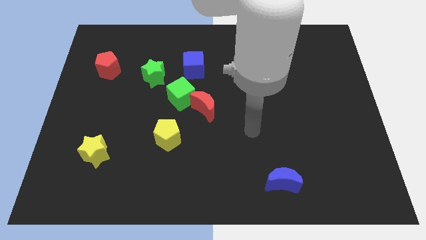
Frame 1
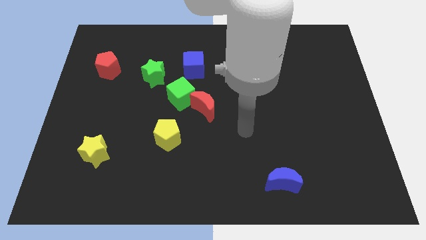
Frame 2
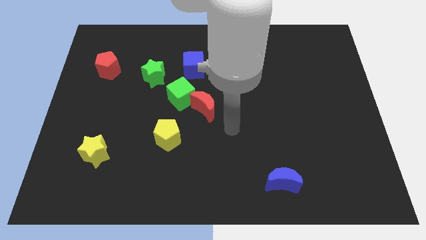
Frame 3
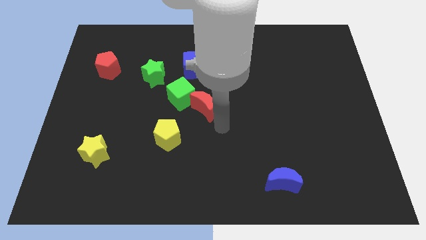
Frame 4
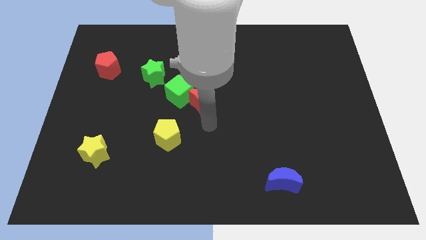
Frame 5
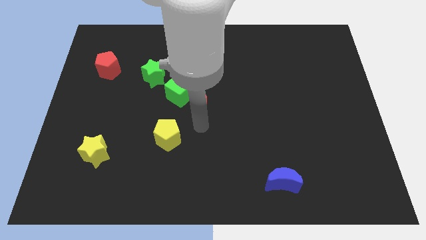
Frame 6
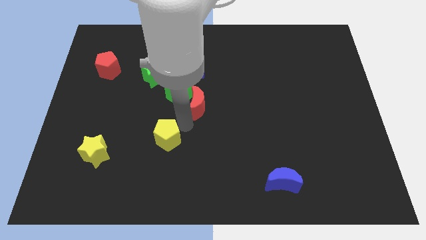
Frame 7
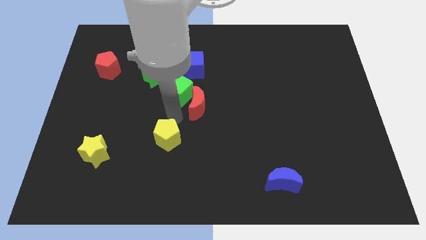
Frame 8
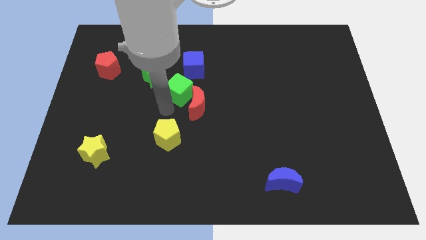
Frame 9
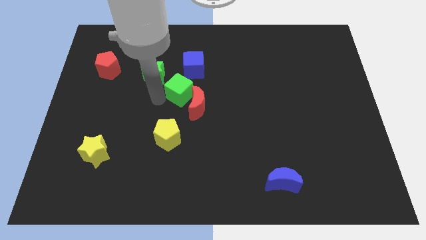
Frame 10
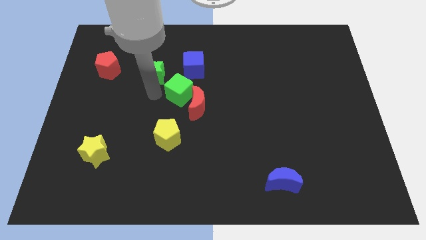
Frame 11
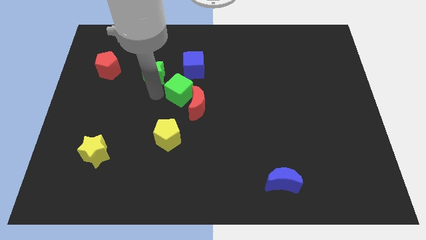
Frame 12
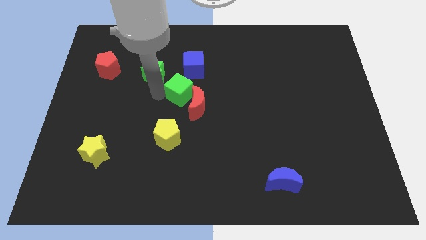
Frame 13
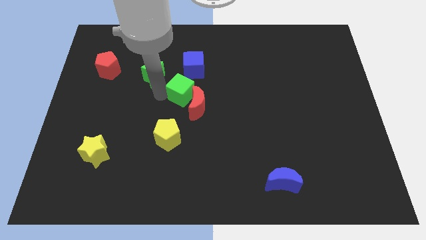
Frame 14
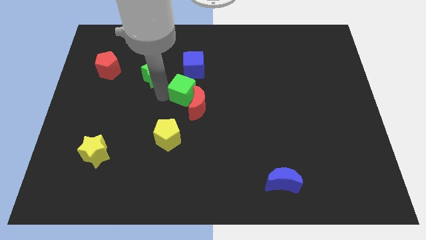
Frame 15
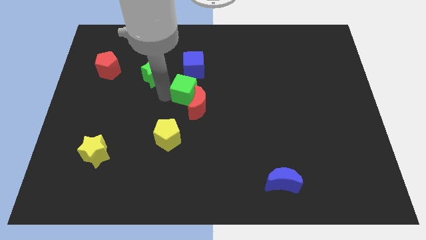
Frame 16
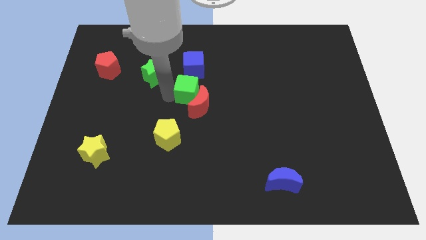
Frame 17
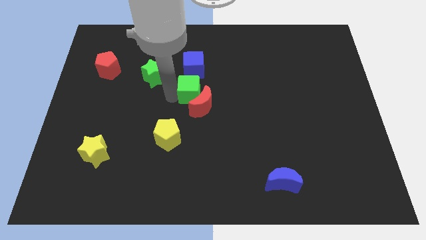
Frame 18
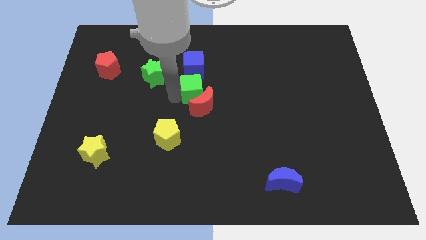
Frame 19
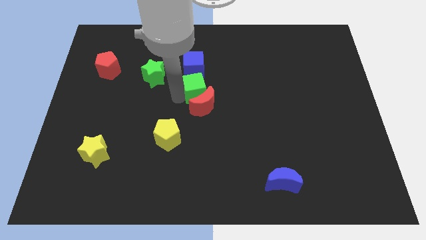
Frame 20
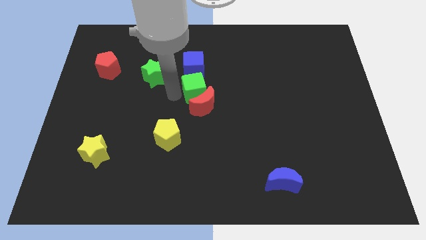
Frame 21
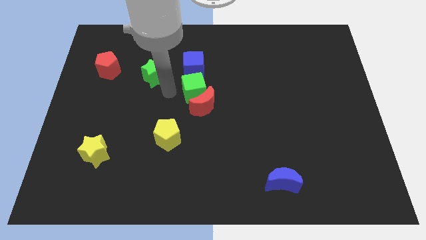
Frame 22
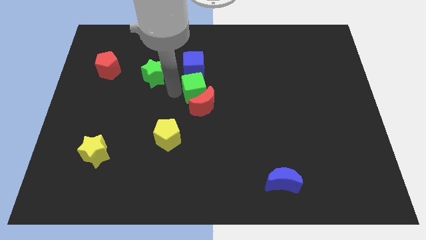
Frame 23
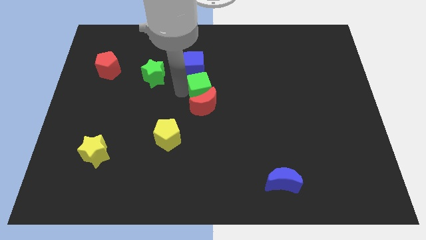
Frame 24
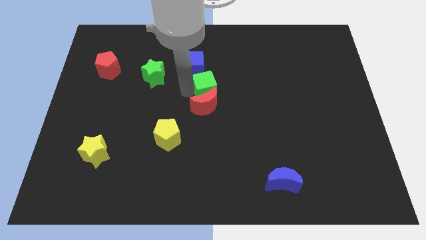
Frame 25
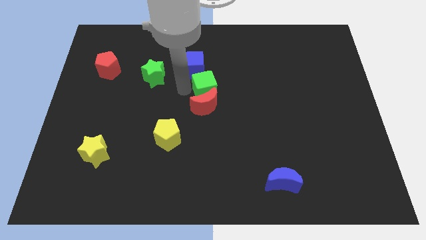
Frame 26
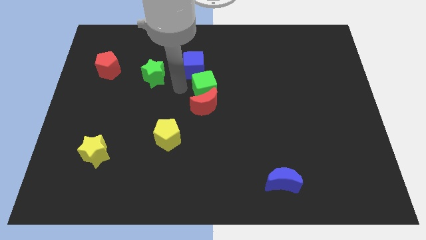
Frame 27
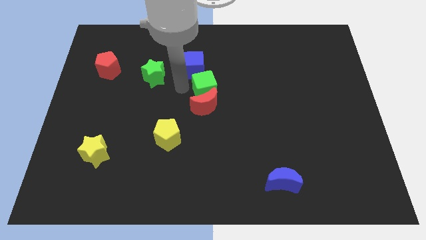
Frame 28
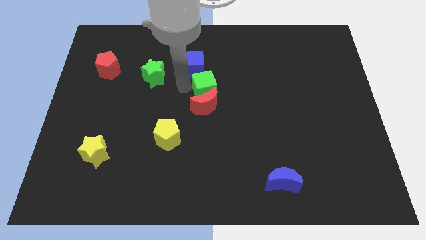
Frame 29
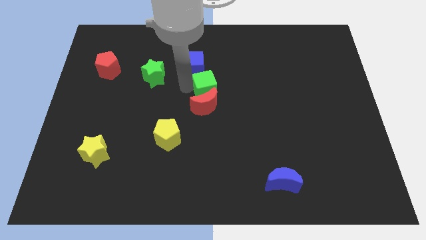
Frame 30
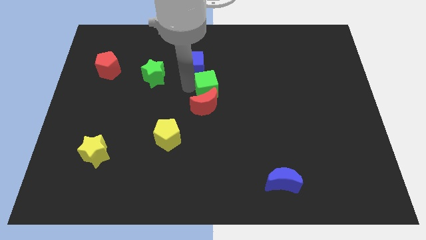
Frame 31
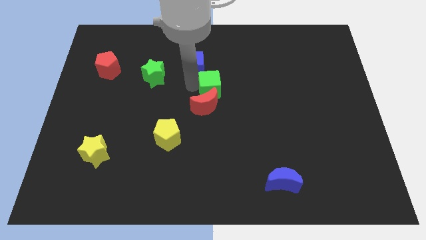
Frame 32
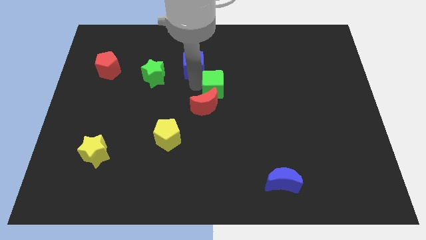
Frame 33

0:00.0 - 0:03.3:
move the green cube to the right a little

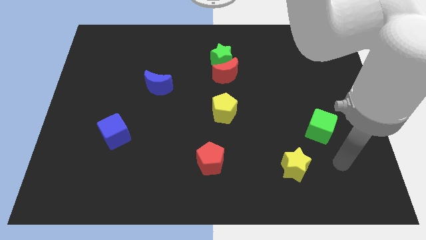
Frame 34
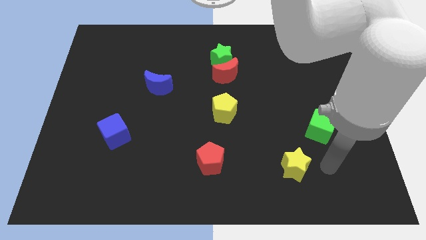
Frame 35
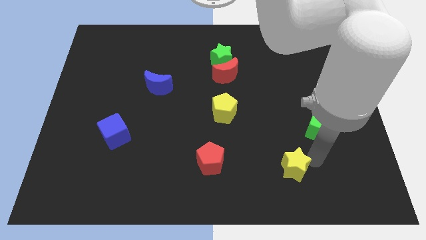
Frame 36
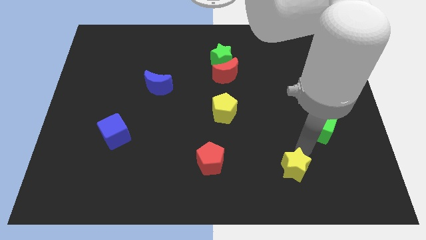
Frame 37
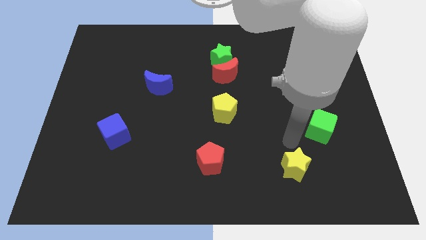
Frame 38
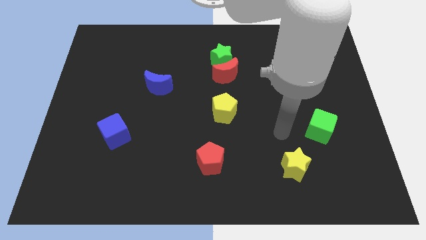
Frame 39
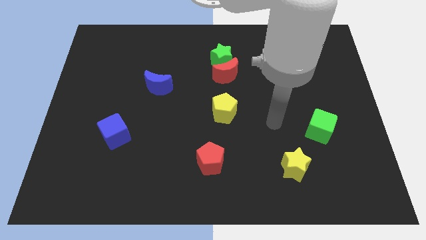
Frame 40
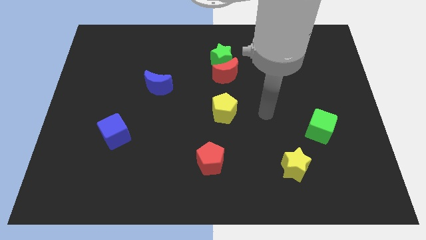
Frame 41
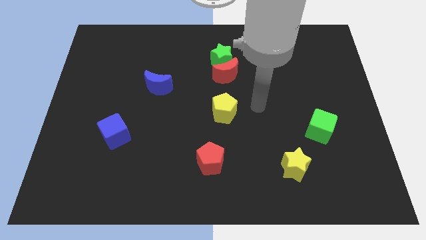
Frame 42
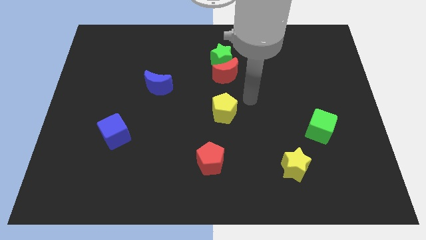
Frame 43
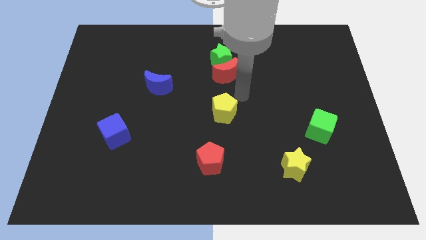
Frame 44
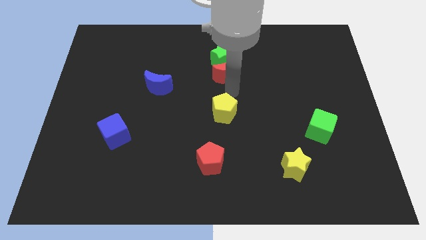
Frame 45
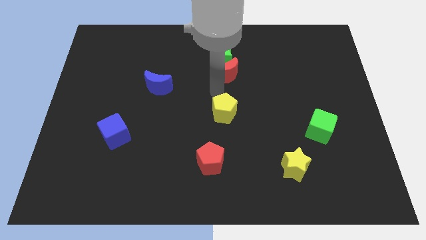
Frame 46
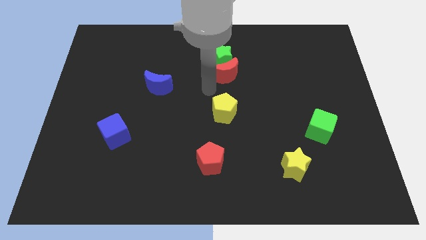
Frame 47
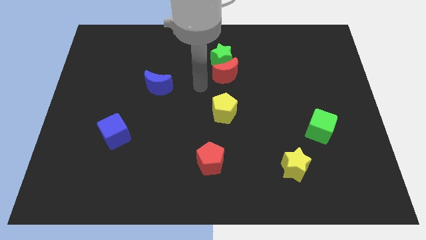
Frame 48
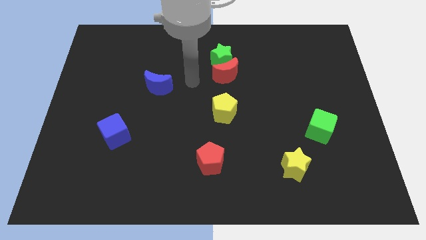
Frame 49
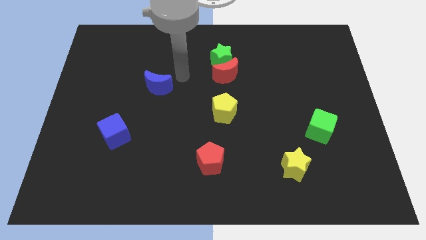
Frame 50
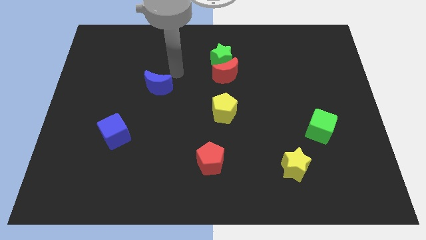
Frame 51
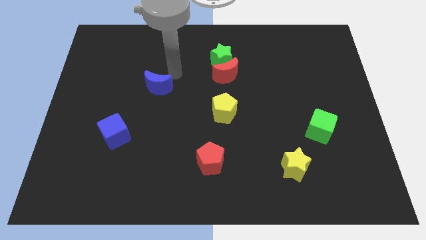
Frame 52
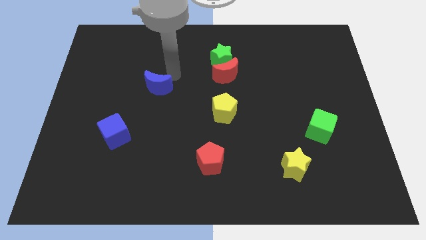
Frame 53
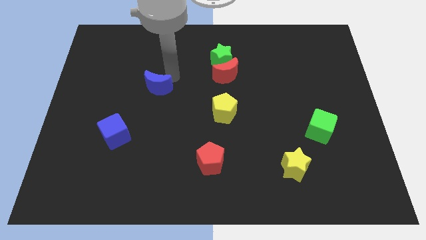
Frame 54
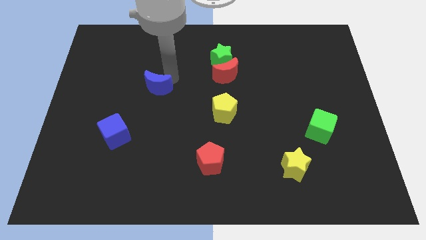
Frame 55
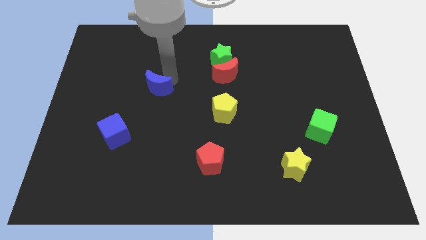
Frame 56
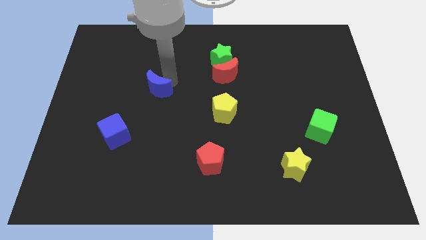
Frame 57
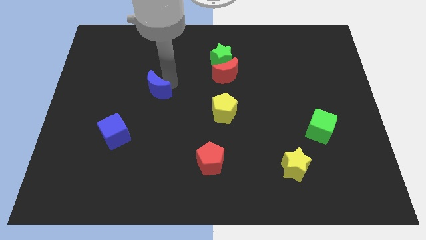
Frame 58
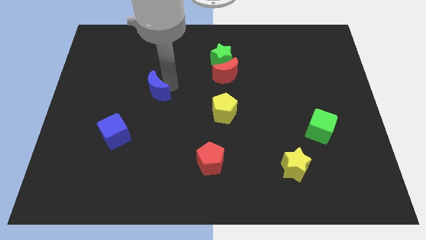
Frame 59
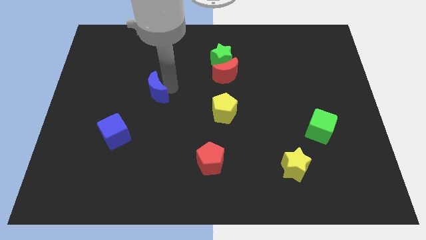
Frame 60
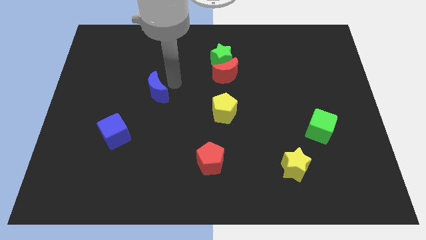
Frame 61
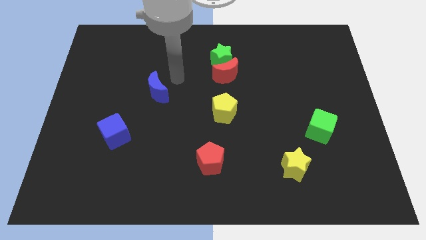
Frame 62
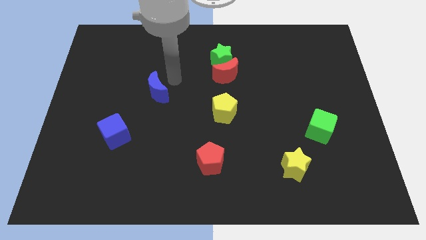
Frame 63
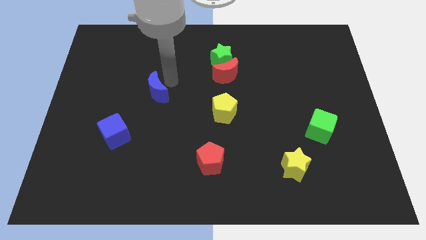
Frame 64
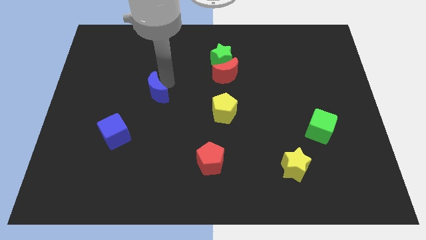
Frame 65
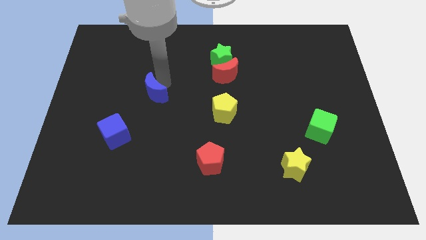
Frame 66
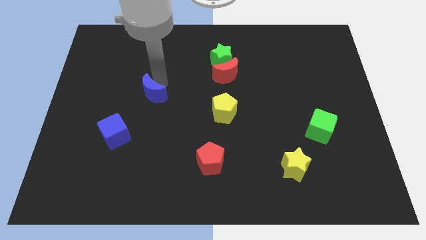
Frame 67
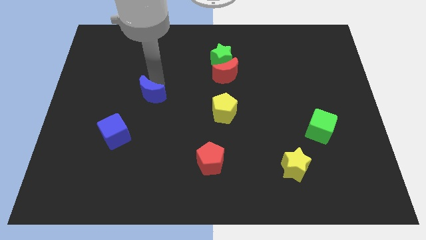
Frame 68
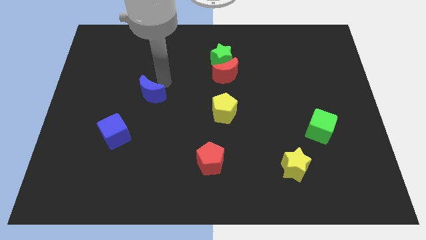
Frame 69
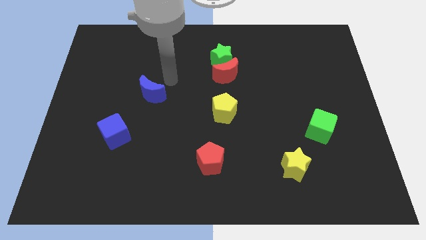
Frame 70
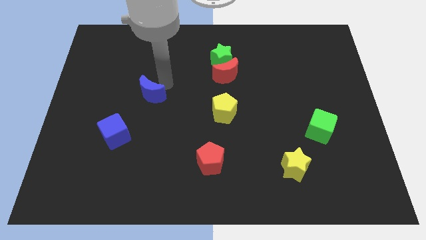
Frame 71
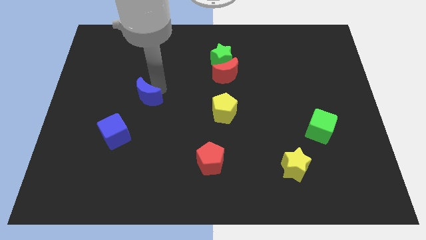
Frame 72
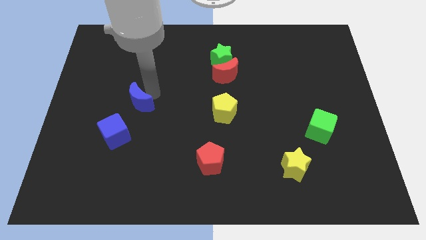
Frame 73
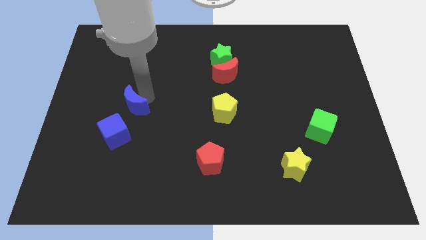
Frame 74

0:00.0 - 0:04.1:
slightly slide the blue moon diagonally downwards and left

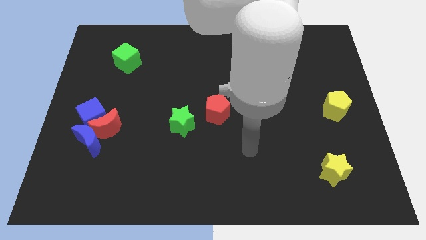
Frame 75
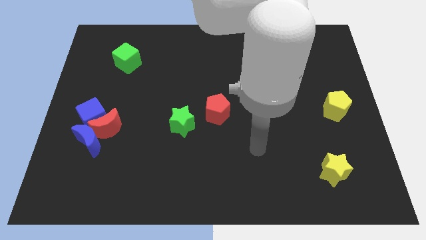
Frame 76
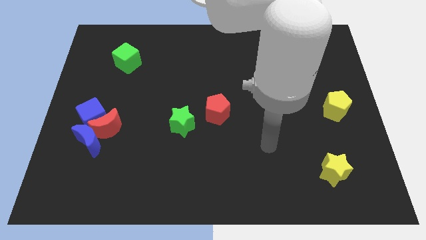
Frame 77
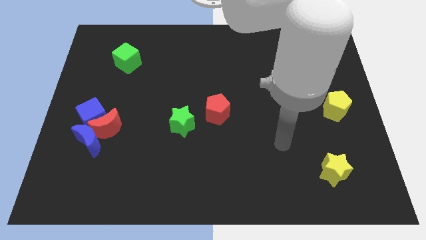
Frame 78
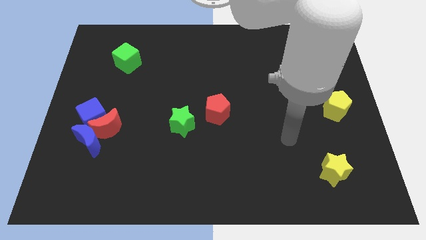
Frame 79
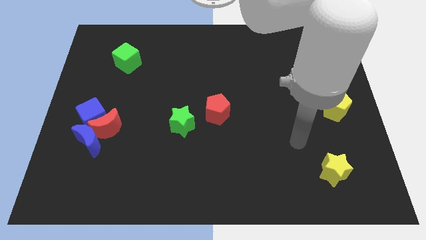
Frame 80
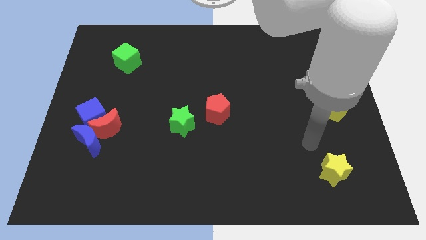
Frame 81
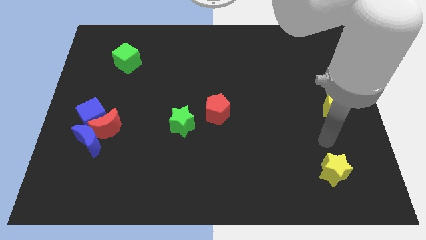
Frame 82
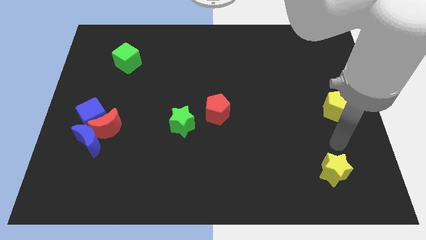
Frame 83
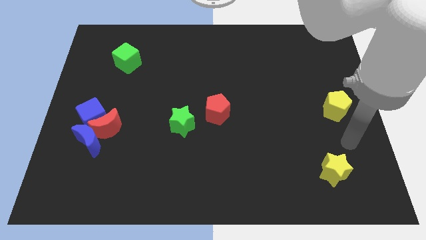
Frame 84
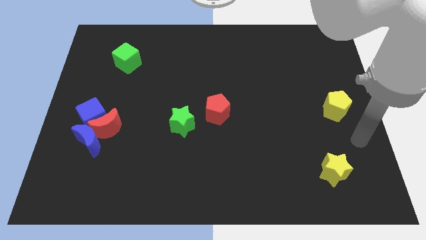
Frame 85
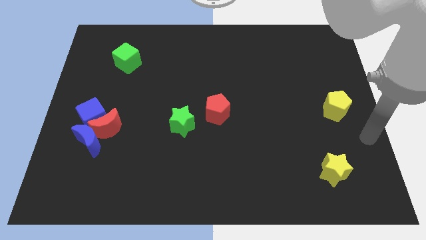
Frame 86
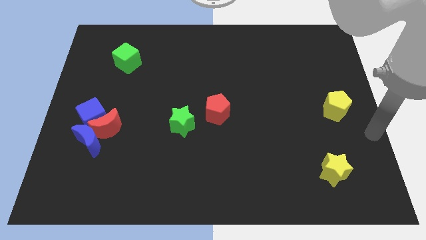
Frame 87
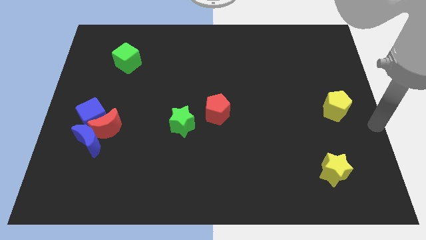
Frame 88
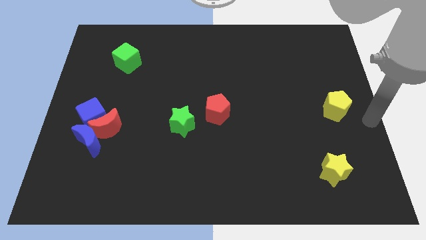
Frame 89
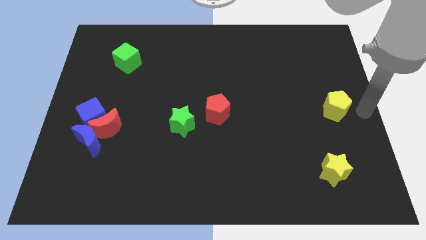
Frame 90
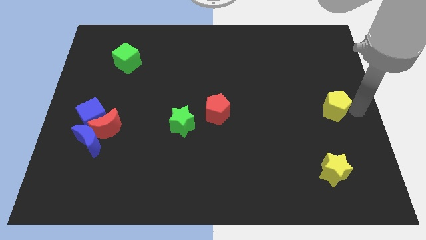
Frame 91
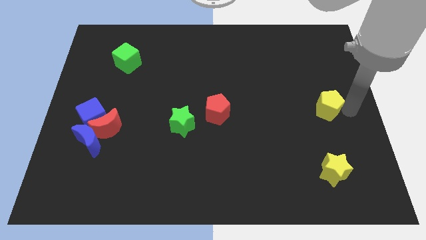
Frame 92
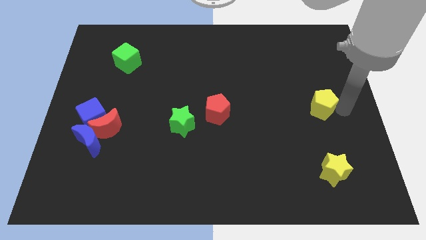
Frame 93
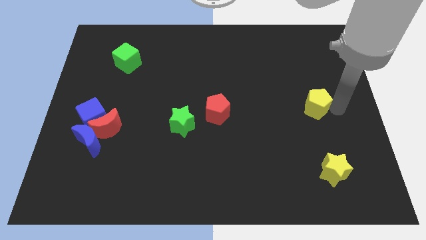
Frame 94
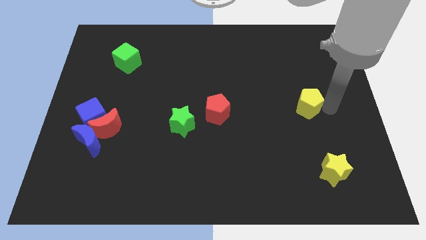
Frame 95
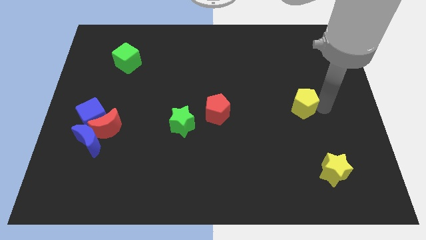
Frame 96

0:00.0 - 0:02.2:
move the yellow pentagon a little bit to the left
